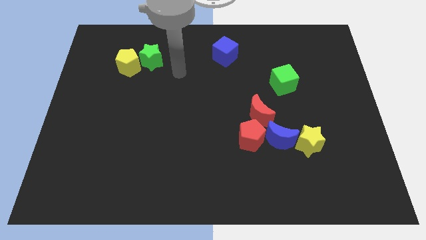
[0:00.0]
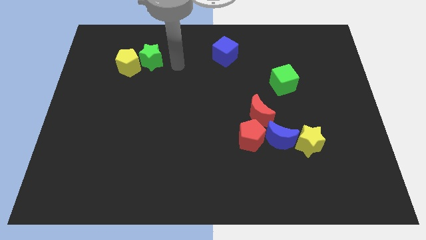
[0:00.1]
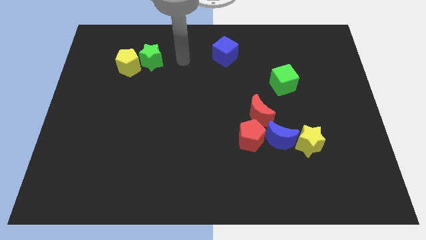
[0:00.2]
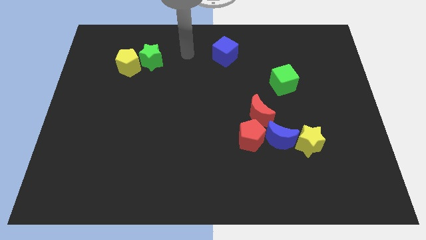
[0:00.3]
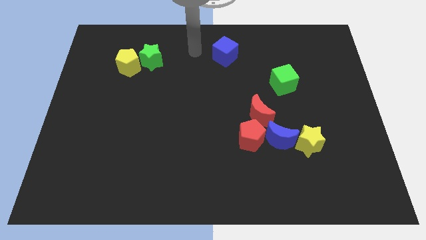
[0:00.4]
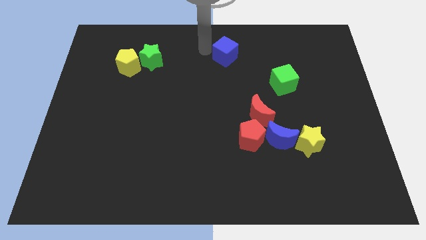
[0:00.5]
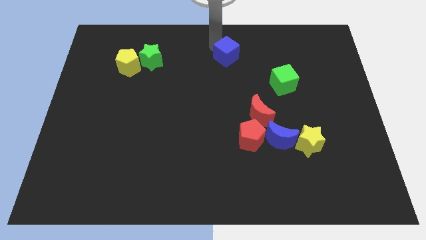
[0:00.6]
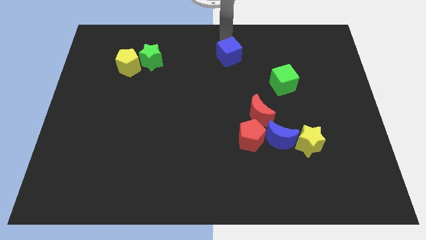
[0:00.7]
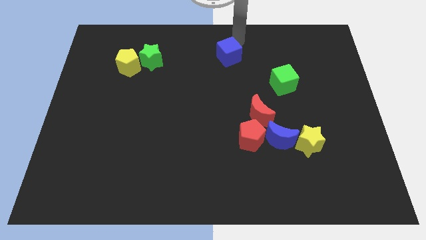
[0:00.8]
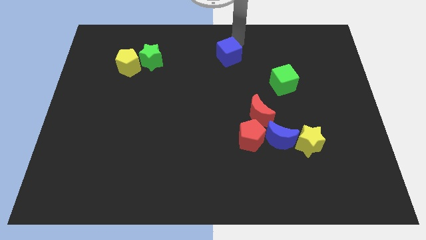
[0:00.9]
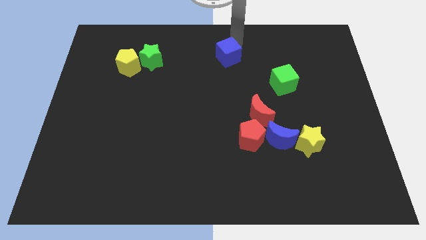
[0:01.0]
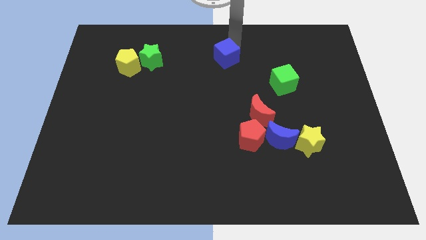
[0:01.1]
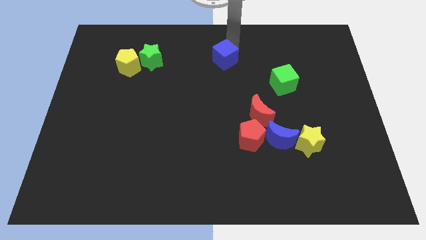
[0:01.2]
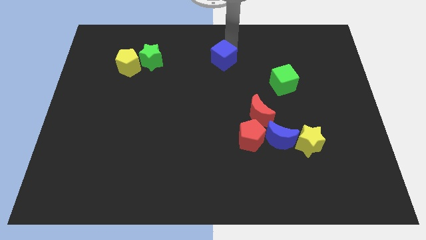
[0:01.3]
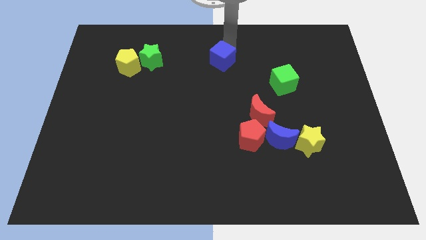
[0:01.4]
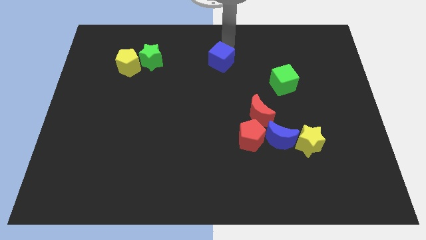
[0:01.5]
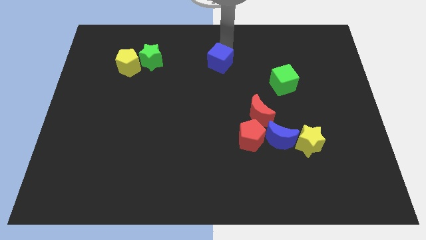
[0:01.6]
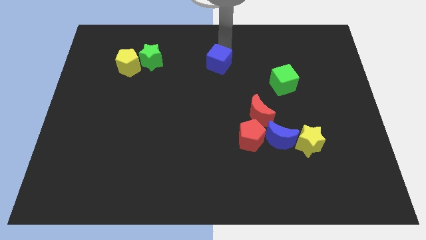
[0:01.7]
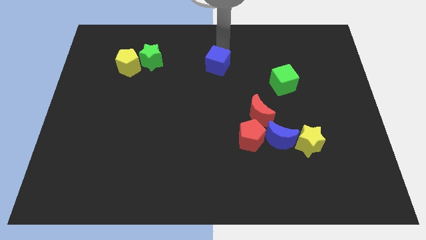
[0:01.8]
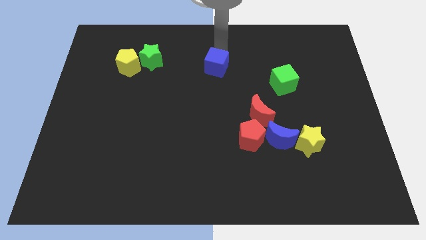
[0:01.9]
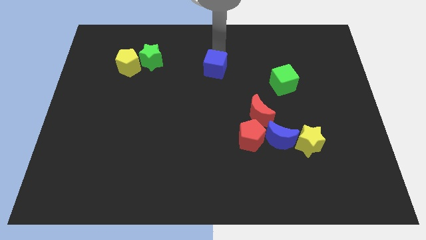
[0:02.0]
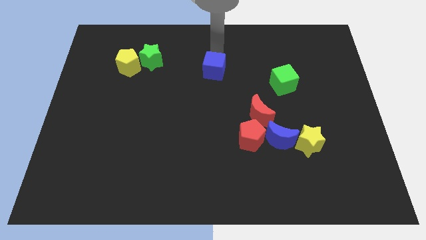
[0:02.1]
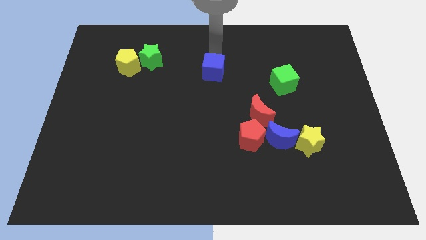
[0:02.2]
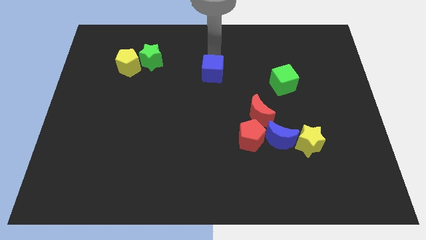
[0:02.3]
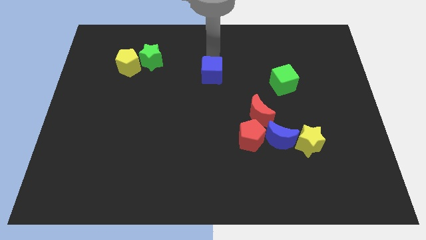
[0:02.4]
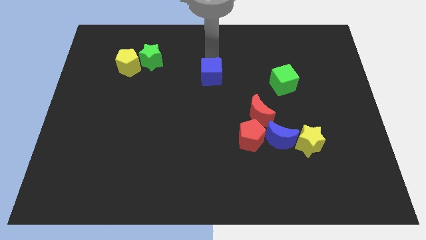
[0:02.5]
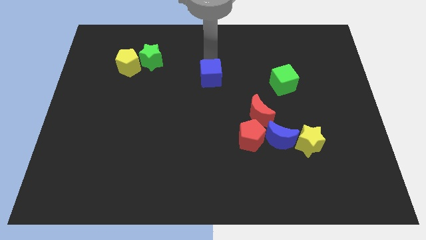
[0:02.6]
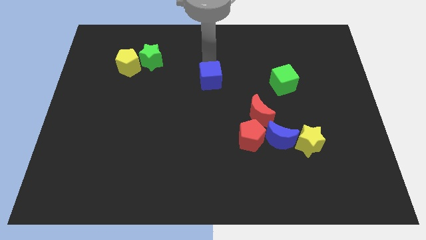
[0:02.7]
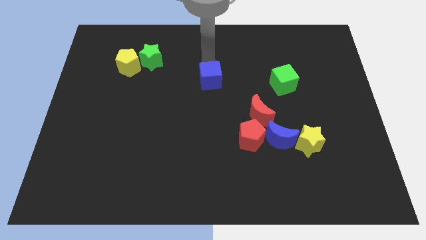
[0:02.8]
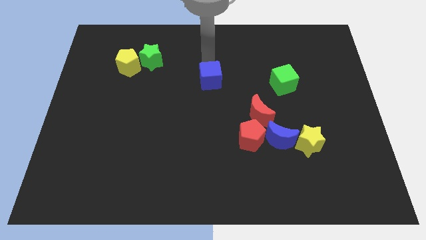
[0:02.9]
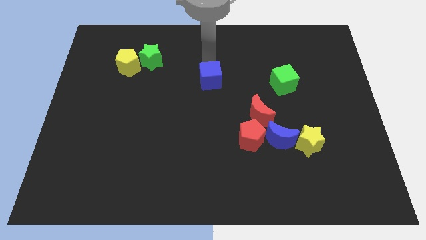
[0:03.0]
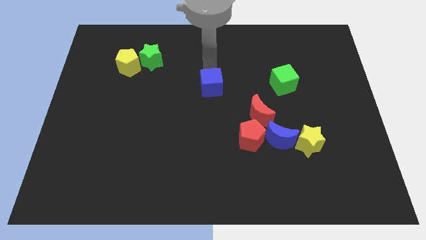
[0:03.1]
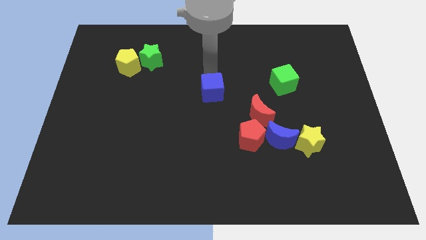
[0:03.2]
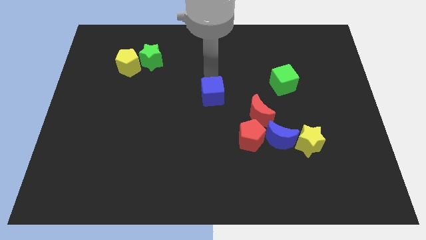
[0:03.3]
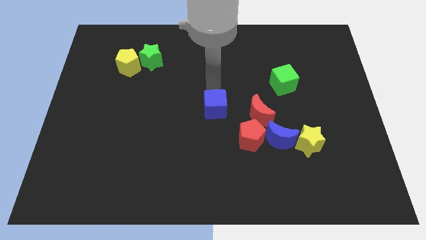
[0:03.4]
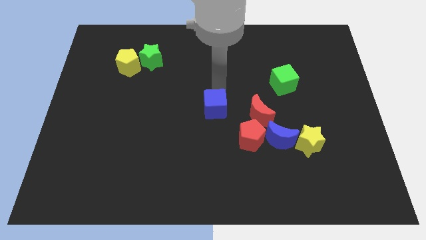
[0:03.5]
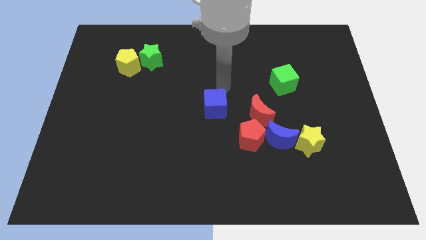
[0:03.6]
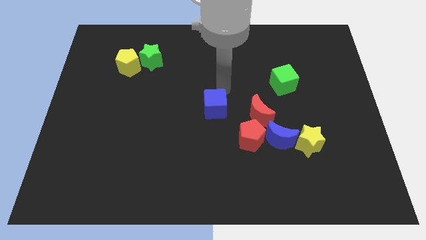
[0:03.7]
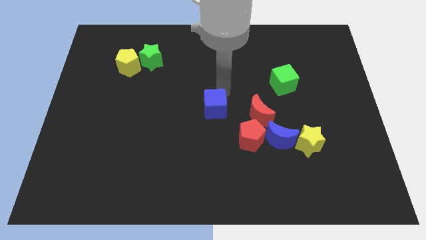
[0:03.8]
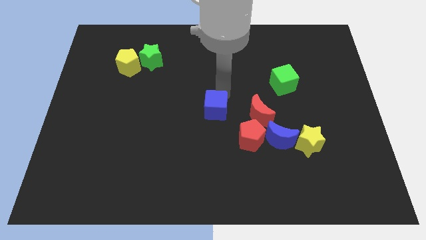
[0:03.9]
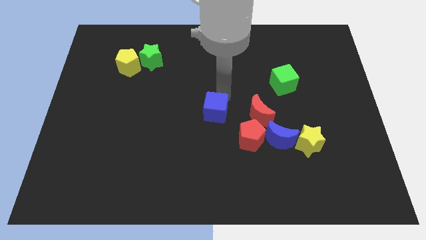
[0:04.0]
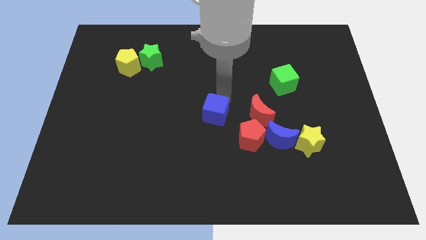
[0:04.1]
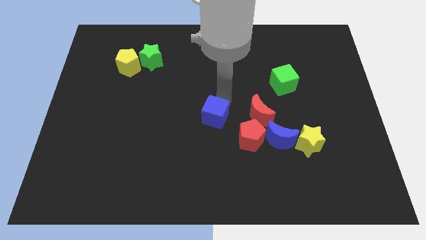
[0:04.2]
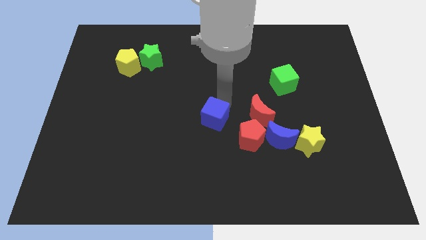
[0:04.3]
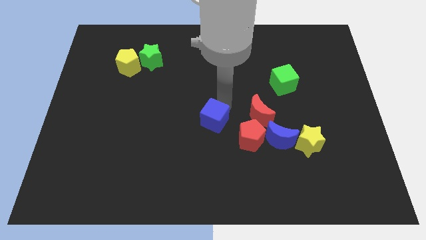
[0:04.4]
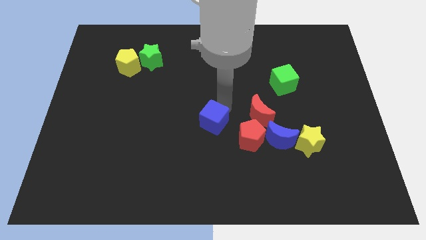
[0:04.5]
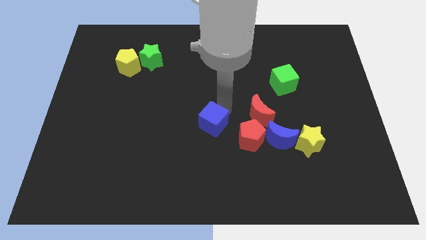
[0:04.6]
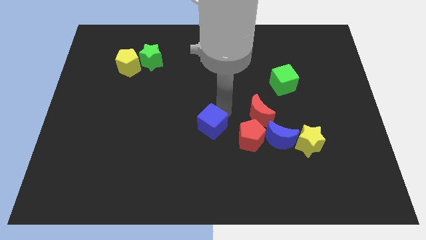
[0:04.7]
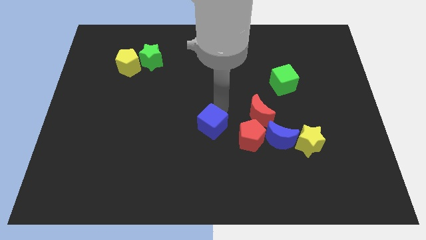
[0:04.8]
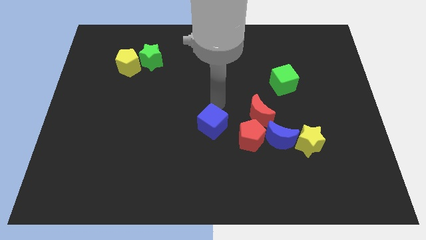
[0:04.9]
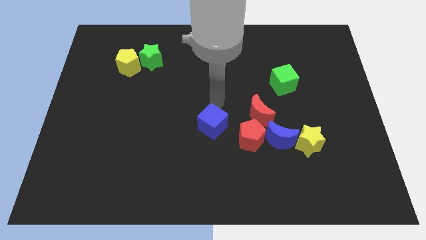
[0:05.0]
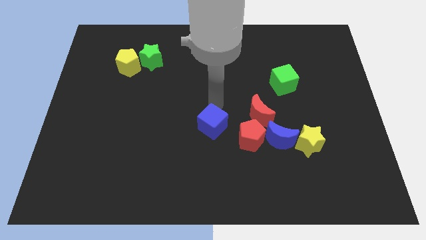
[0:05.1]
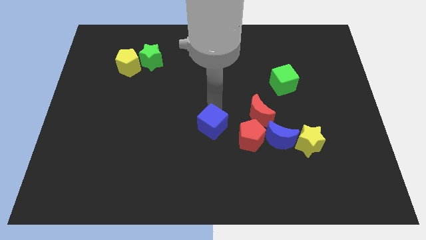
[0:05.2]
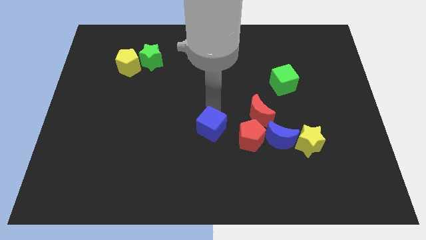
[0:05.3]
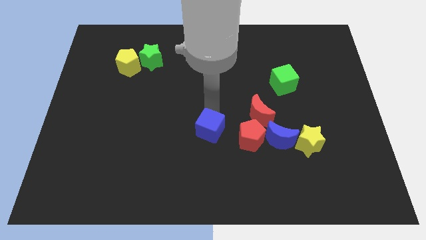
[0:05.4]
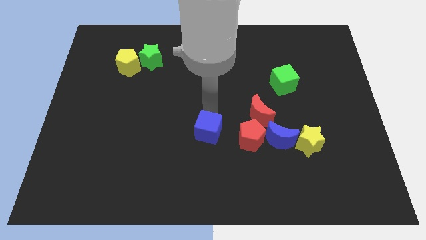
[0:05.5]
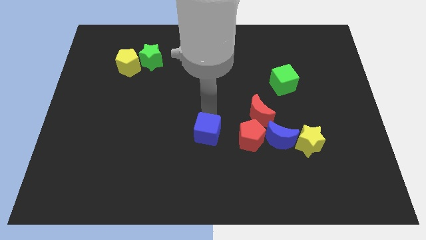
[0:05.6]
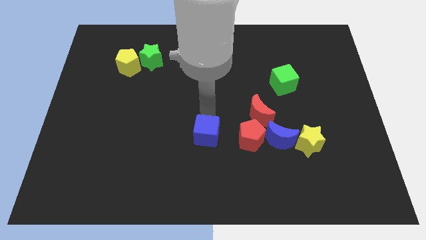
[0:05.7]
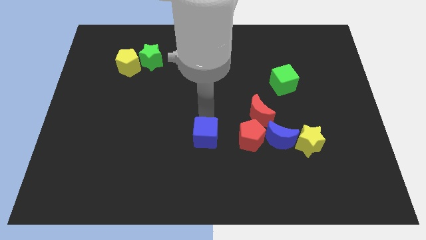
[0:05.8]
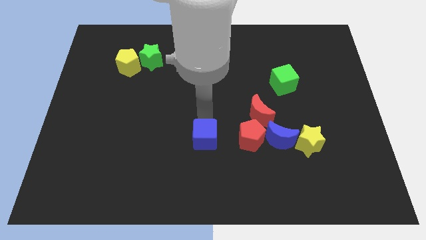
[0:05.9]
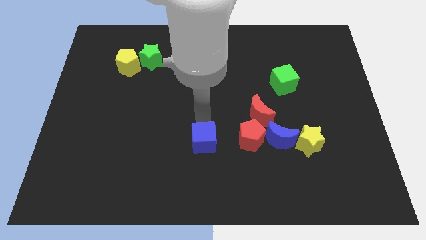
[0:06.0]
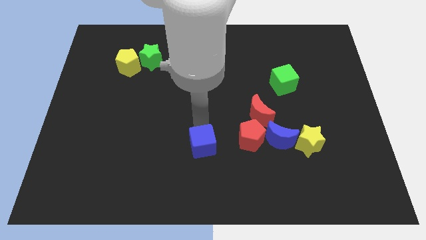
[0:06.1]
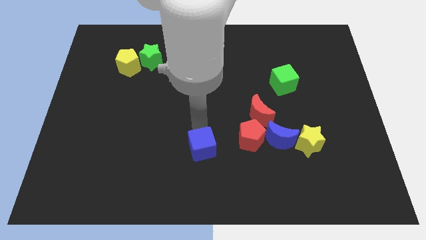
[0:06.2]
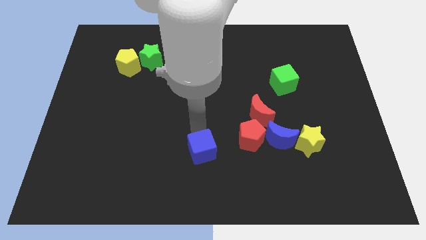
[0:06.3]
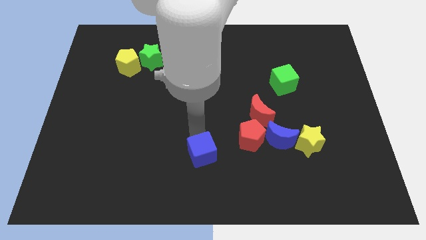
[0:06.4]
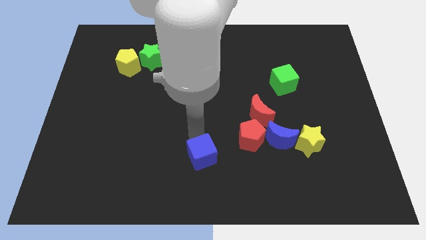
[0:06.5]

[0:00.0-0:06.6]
push the blue cube to the bottom
